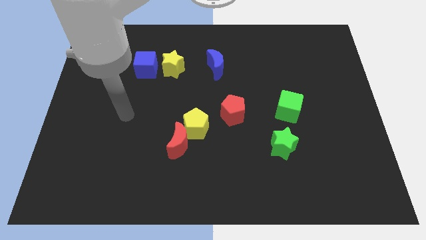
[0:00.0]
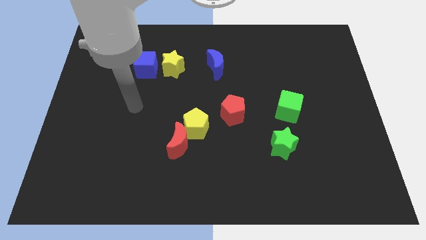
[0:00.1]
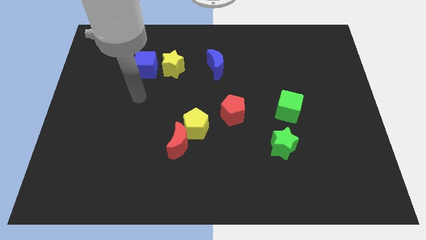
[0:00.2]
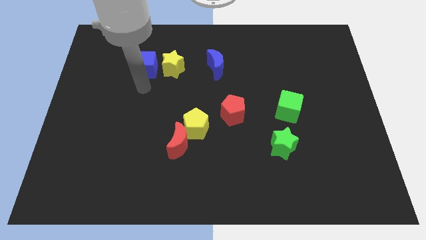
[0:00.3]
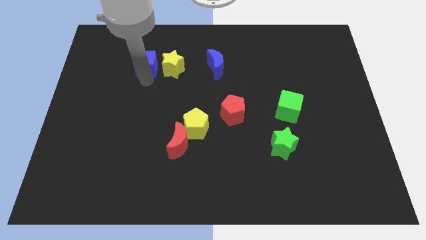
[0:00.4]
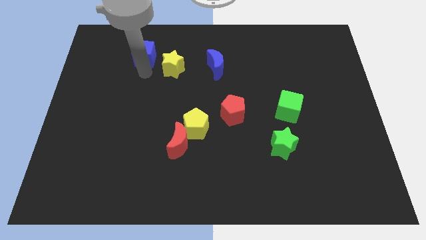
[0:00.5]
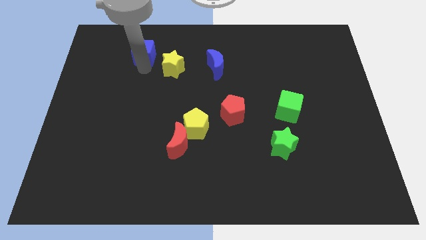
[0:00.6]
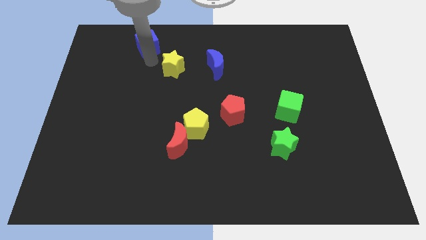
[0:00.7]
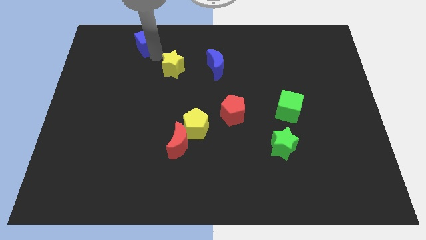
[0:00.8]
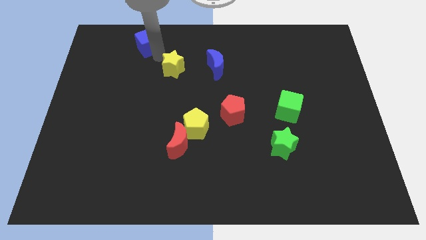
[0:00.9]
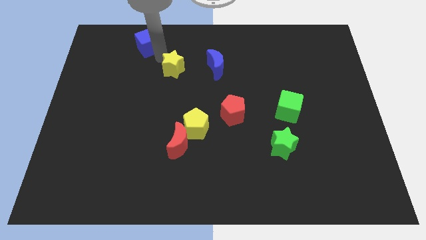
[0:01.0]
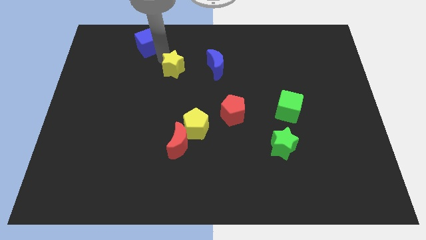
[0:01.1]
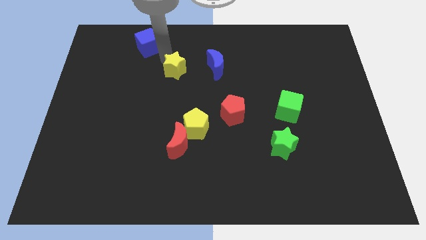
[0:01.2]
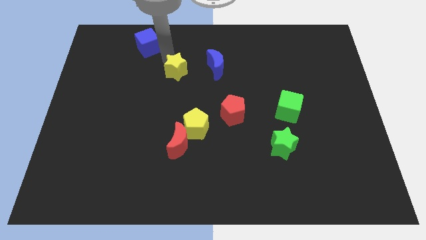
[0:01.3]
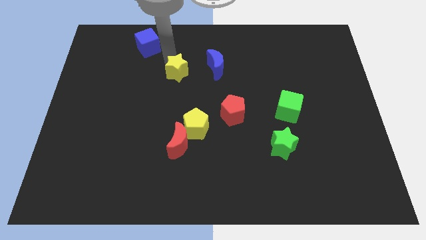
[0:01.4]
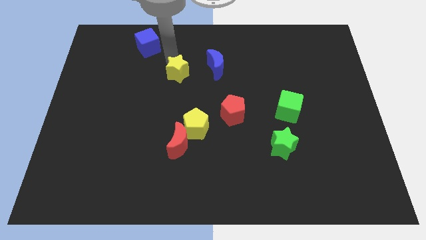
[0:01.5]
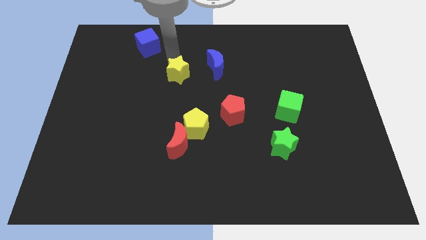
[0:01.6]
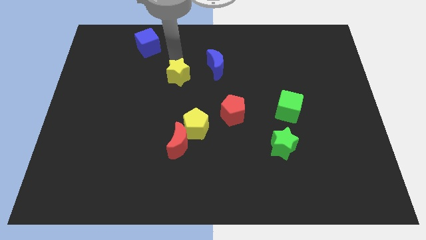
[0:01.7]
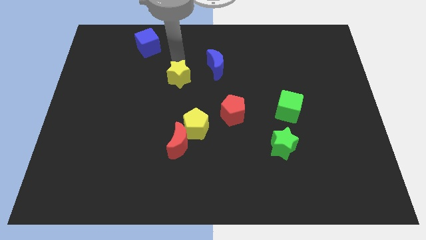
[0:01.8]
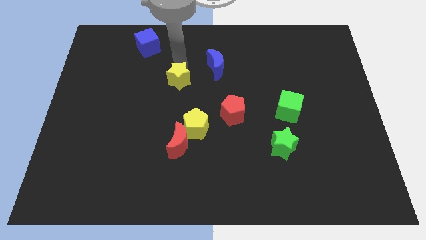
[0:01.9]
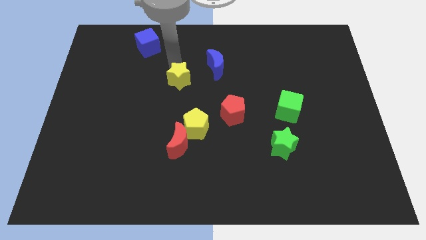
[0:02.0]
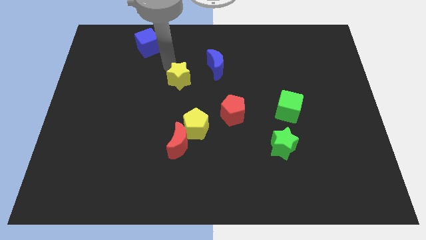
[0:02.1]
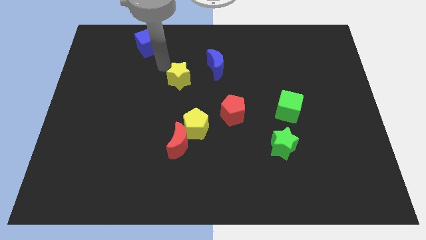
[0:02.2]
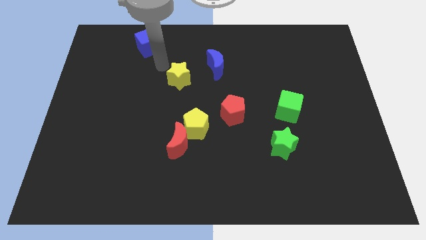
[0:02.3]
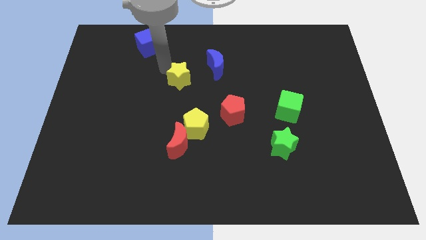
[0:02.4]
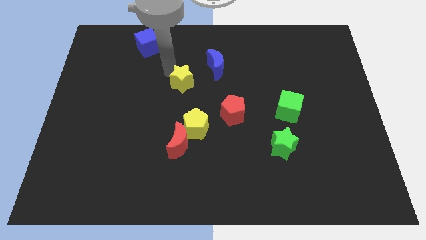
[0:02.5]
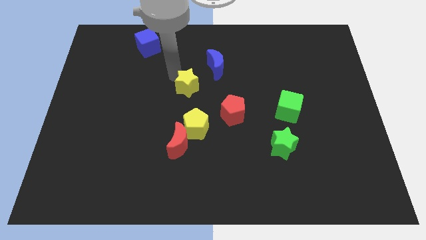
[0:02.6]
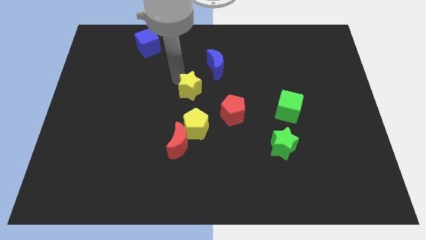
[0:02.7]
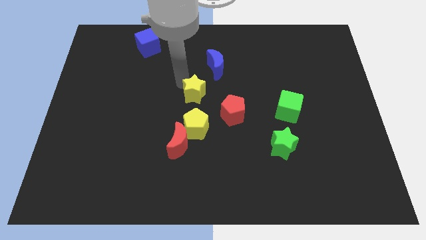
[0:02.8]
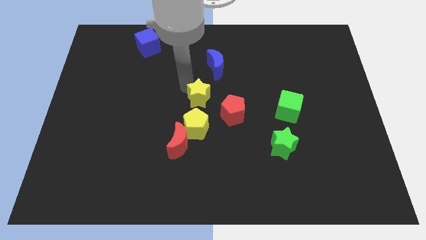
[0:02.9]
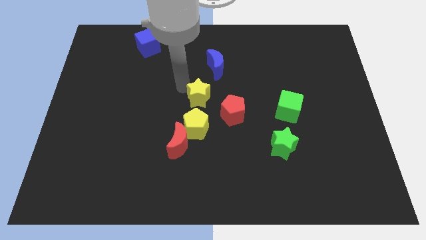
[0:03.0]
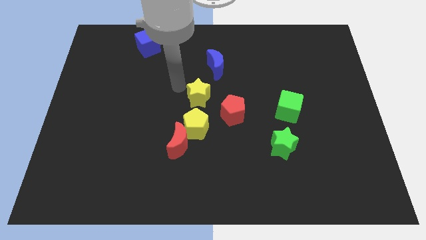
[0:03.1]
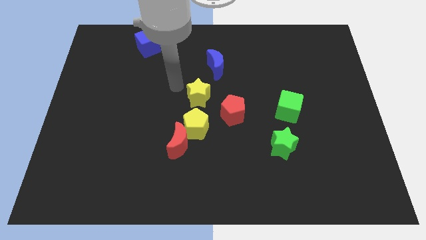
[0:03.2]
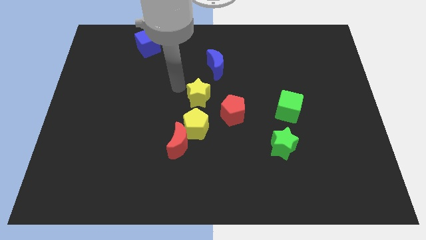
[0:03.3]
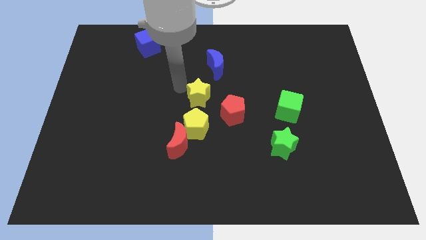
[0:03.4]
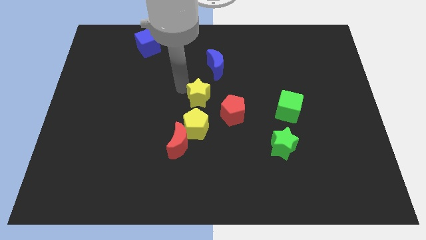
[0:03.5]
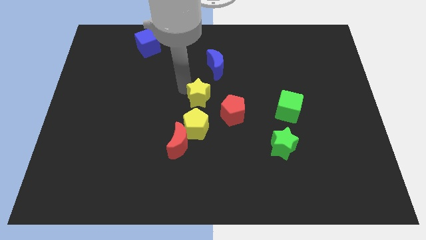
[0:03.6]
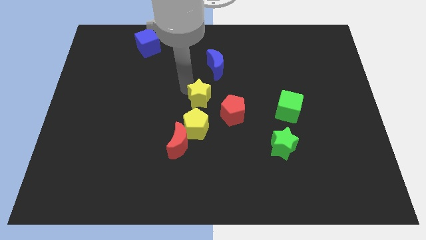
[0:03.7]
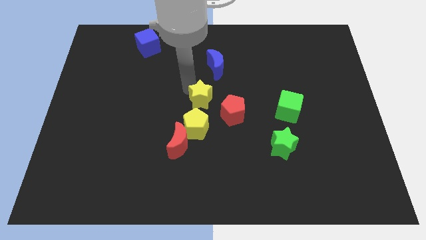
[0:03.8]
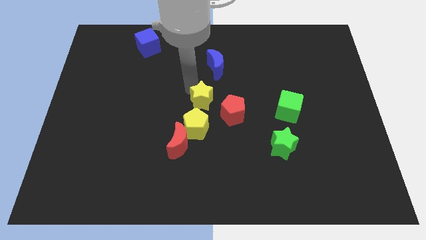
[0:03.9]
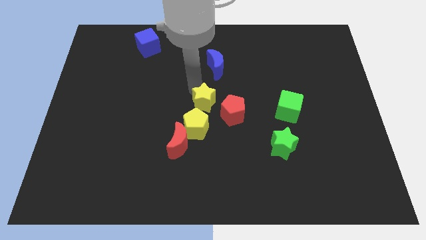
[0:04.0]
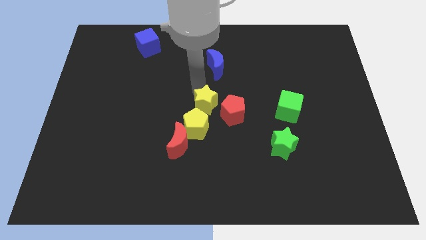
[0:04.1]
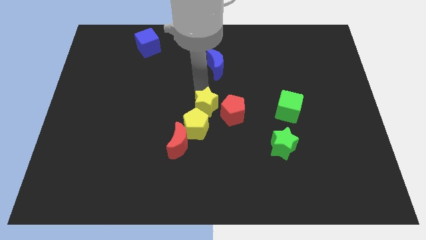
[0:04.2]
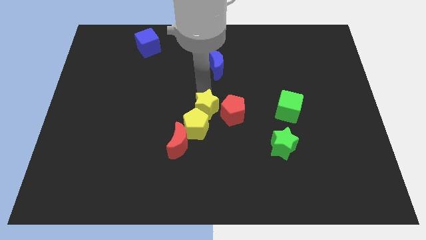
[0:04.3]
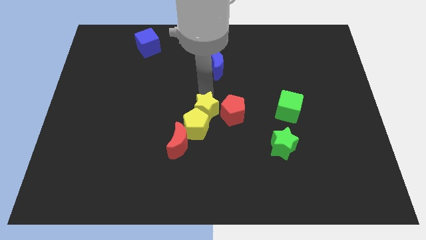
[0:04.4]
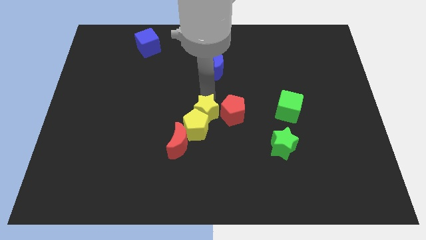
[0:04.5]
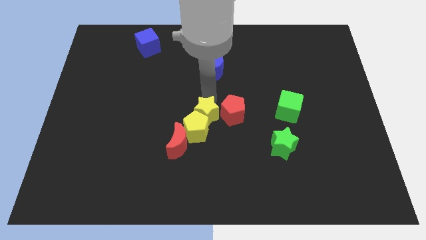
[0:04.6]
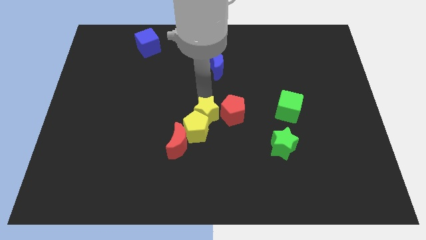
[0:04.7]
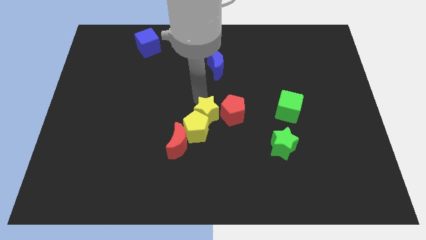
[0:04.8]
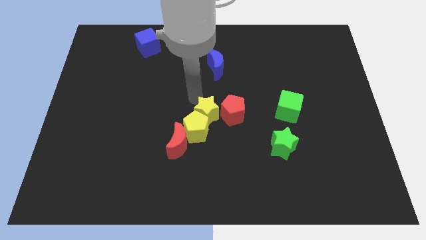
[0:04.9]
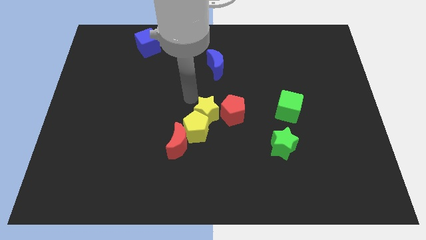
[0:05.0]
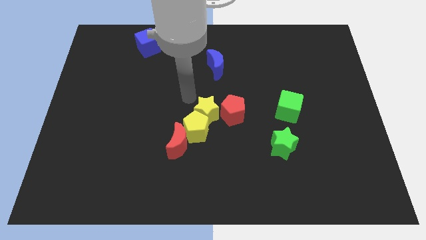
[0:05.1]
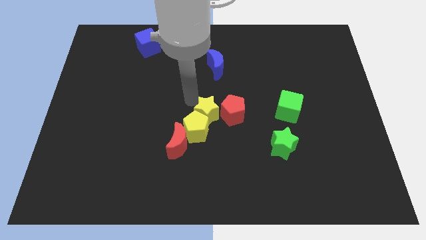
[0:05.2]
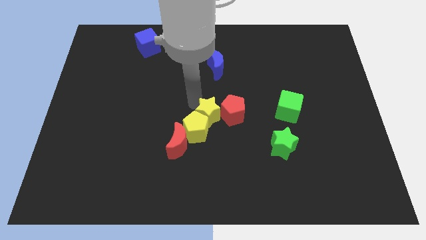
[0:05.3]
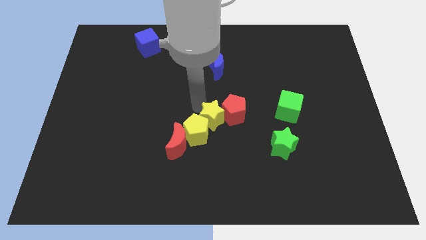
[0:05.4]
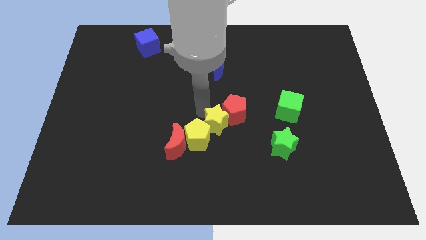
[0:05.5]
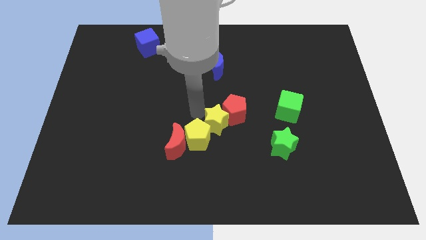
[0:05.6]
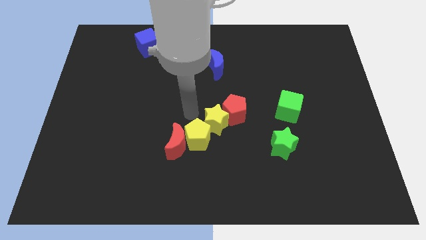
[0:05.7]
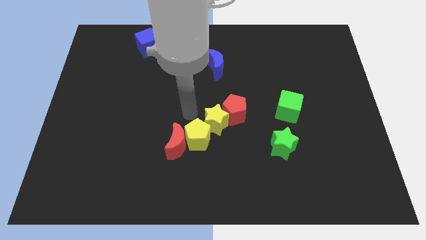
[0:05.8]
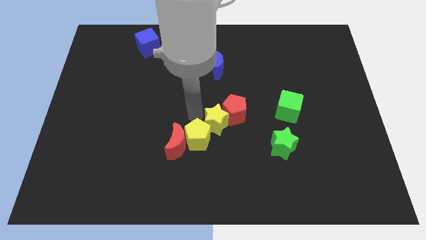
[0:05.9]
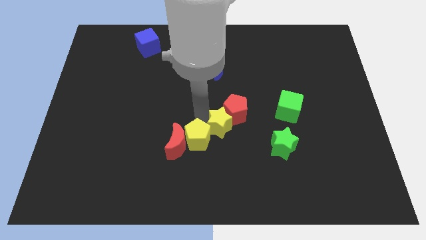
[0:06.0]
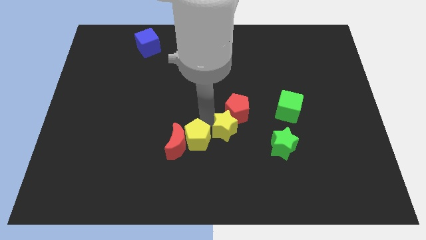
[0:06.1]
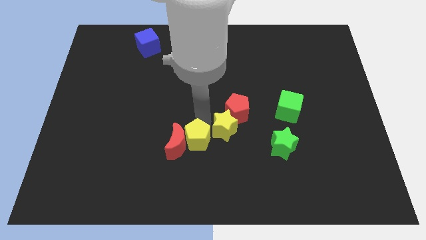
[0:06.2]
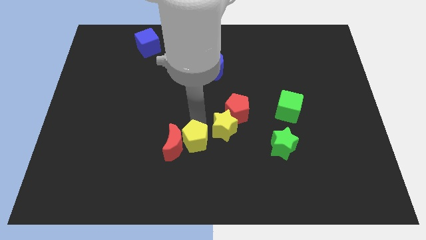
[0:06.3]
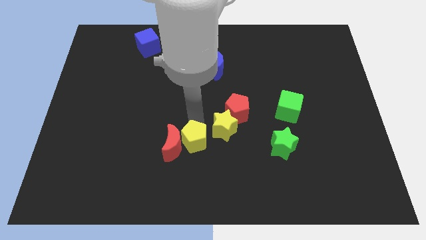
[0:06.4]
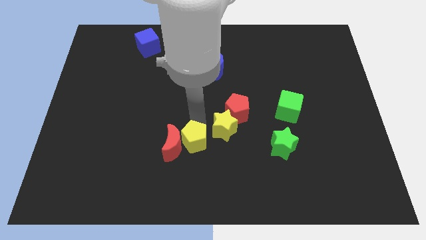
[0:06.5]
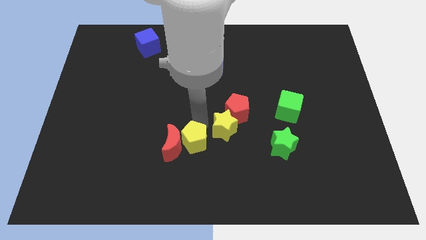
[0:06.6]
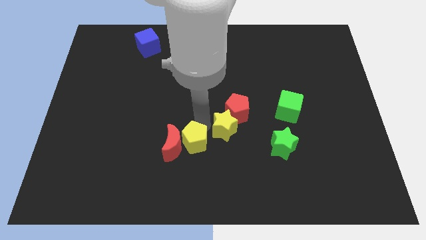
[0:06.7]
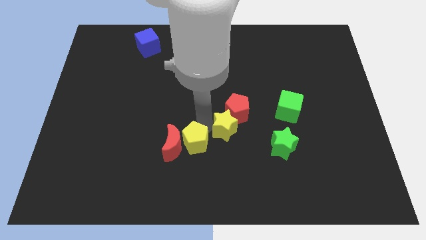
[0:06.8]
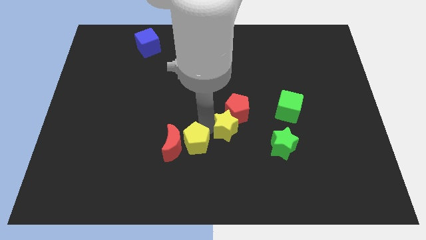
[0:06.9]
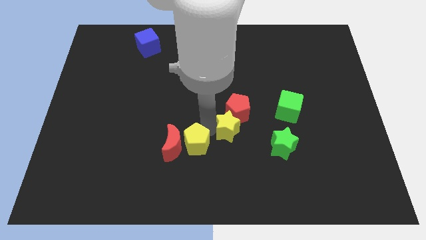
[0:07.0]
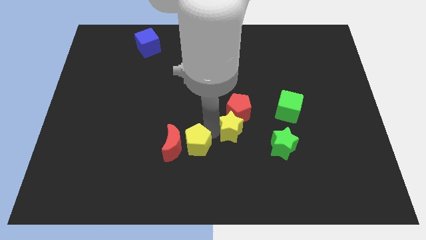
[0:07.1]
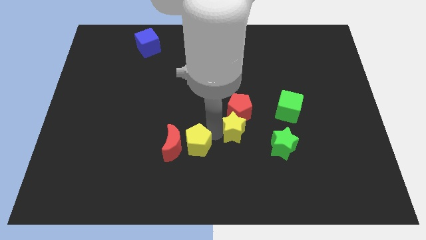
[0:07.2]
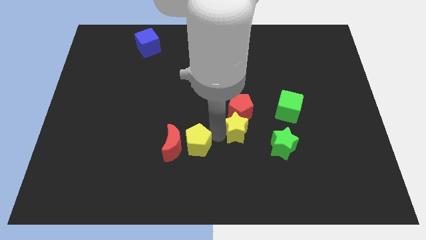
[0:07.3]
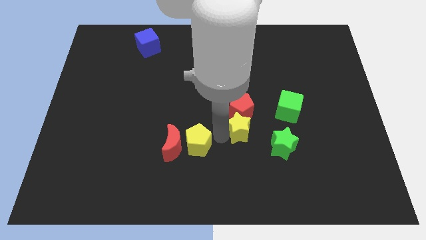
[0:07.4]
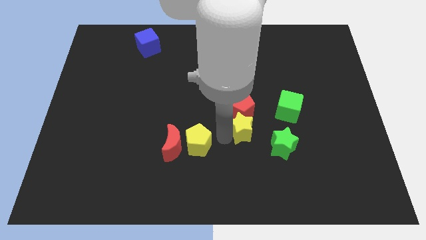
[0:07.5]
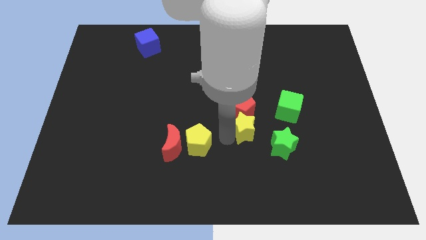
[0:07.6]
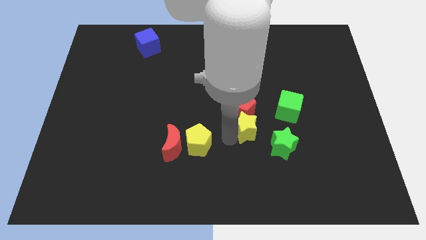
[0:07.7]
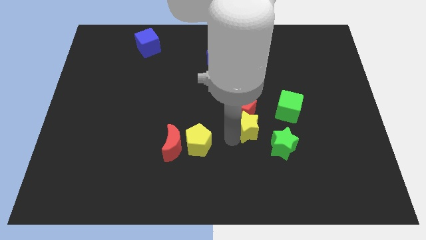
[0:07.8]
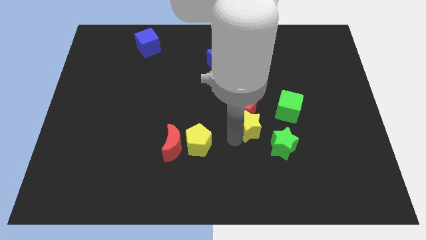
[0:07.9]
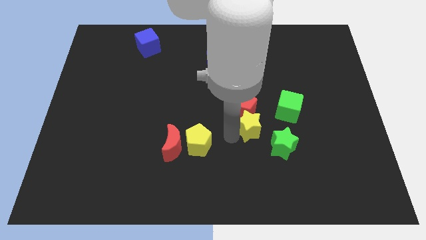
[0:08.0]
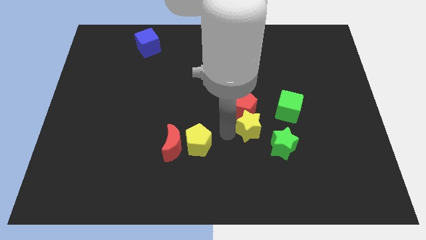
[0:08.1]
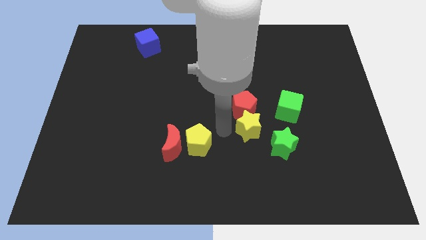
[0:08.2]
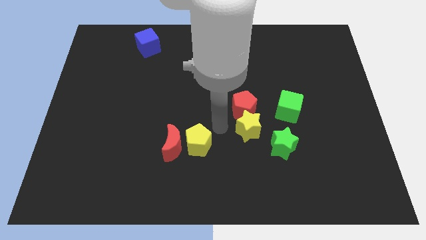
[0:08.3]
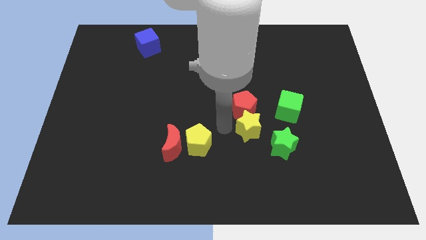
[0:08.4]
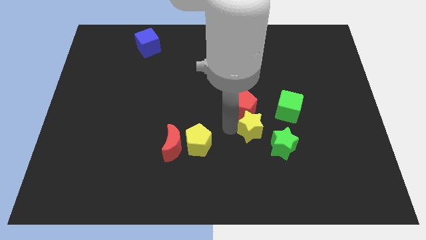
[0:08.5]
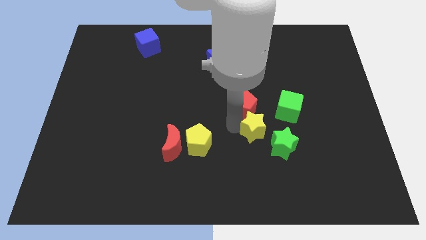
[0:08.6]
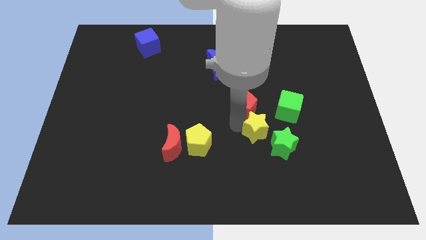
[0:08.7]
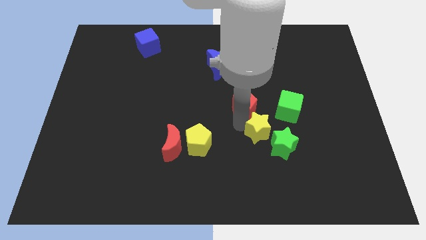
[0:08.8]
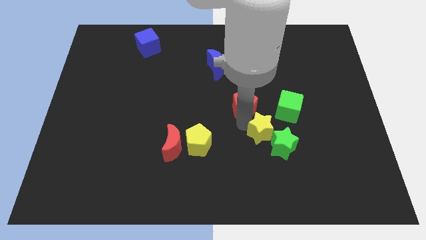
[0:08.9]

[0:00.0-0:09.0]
slide the yellow star to the green star
